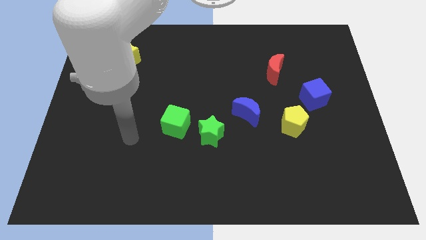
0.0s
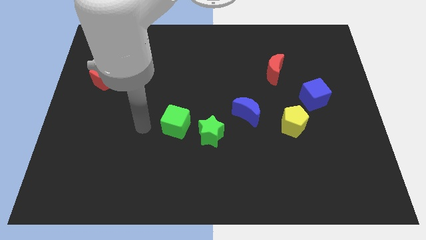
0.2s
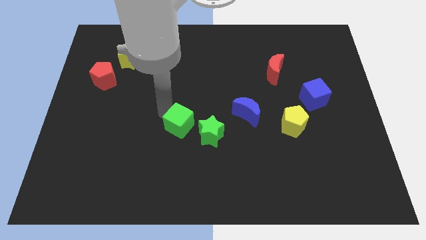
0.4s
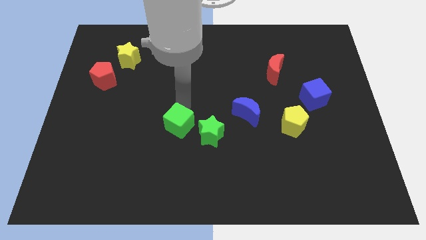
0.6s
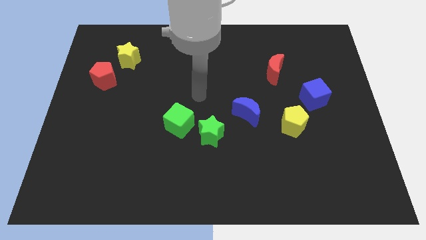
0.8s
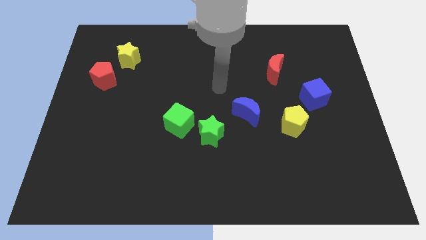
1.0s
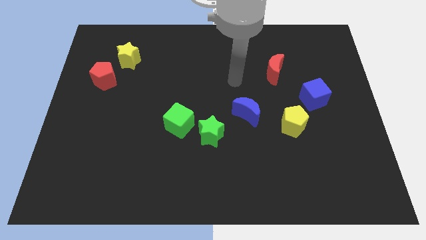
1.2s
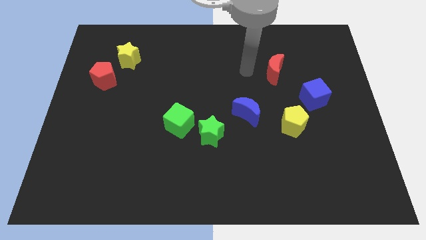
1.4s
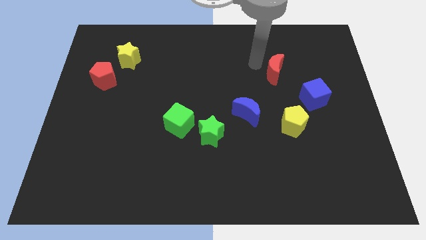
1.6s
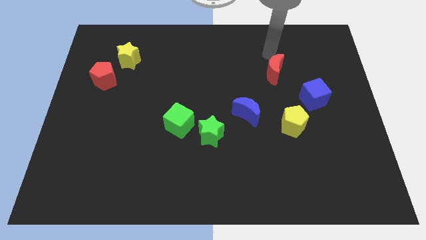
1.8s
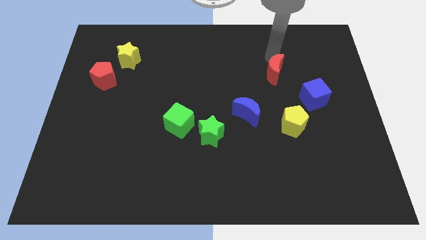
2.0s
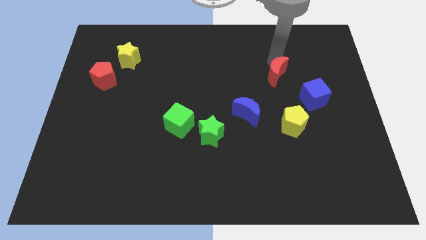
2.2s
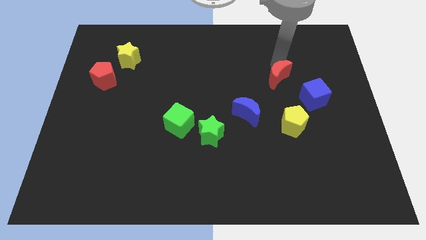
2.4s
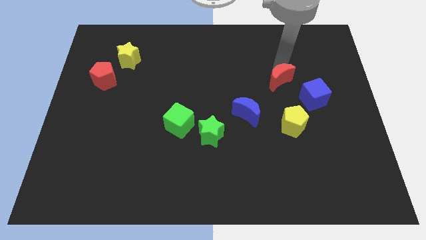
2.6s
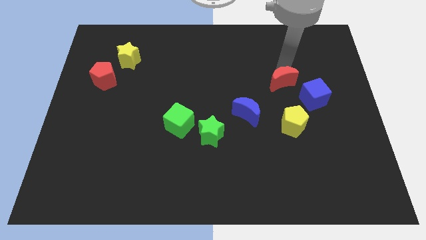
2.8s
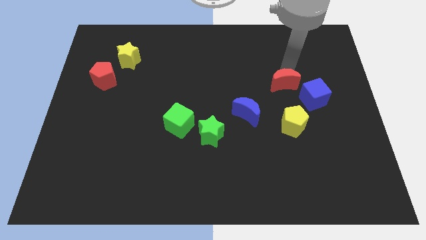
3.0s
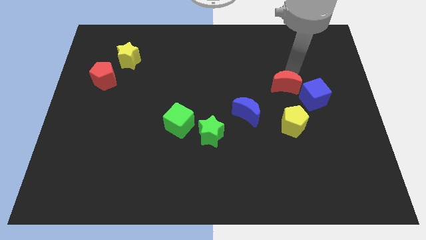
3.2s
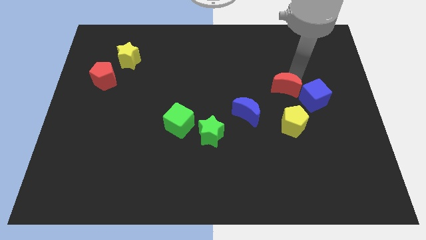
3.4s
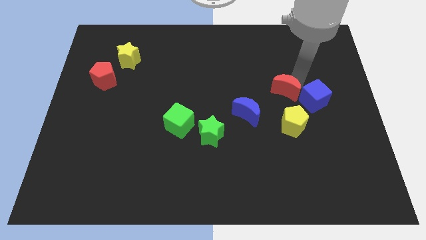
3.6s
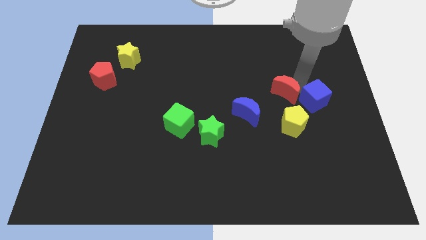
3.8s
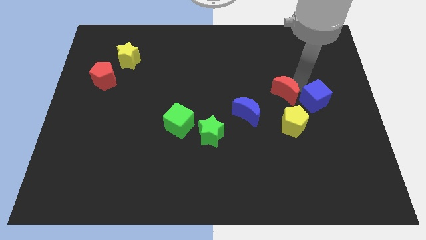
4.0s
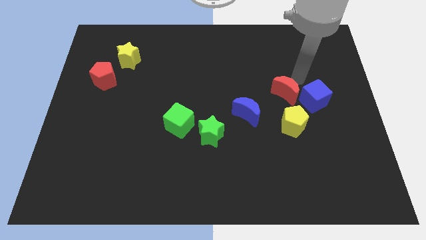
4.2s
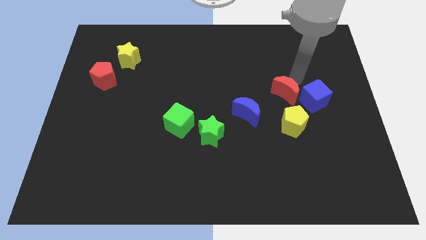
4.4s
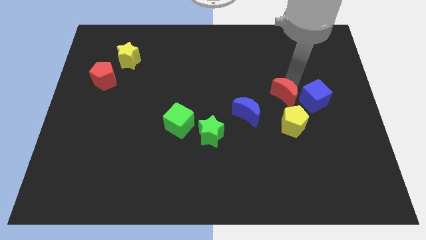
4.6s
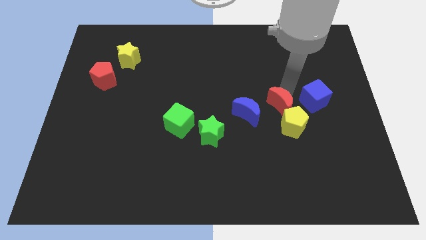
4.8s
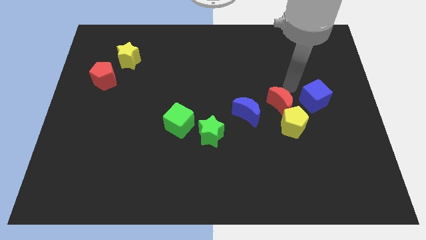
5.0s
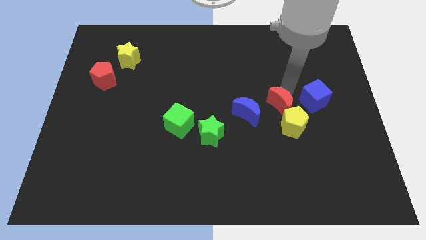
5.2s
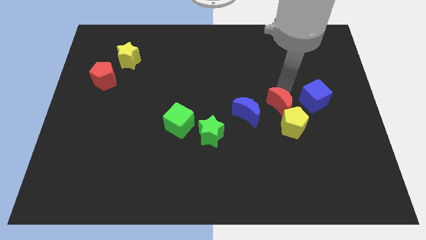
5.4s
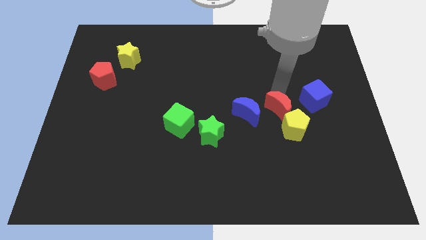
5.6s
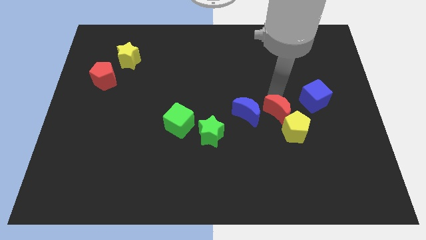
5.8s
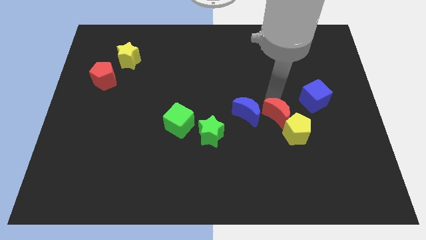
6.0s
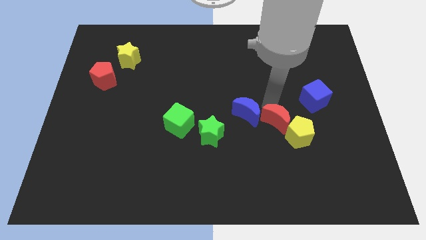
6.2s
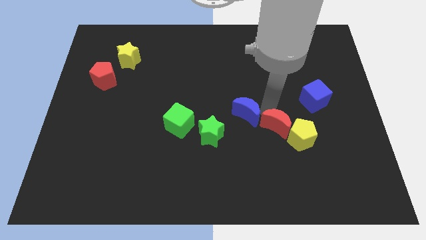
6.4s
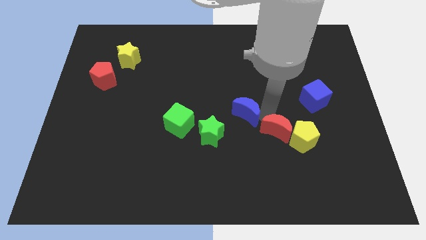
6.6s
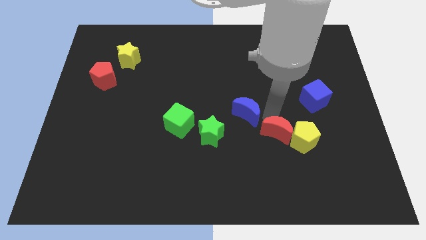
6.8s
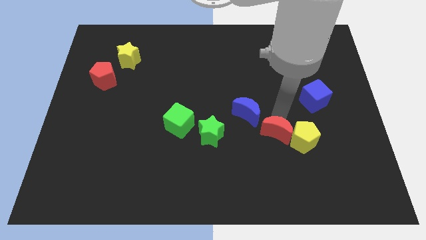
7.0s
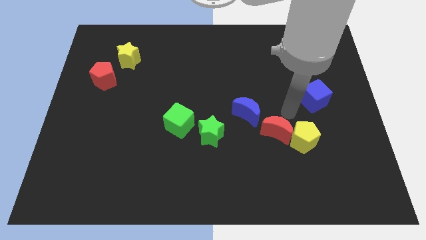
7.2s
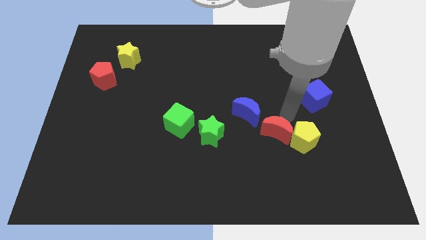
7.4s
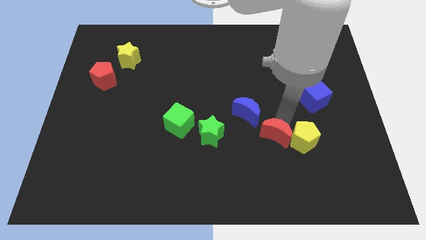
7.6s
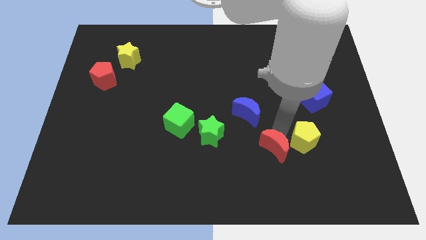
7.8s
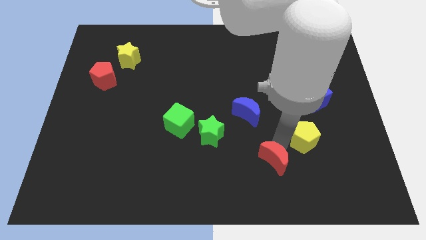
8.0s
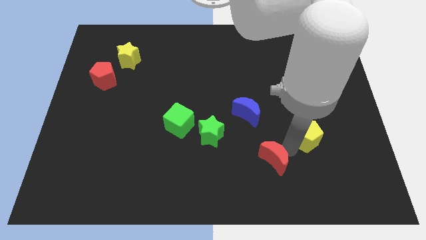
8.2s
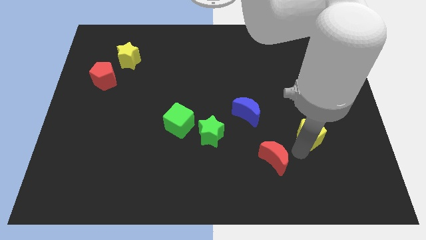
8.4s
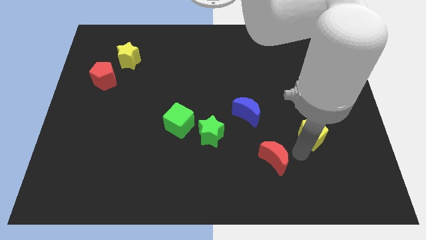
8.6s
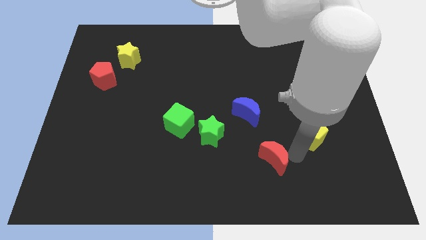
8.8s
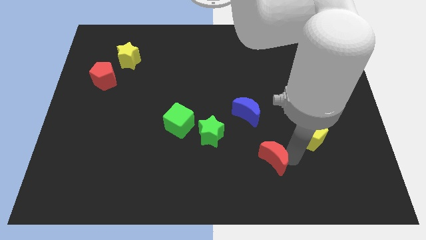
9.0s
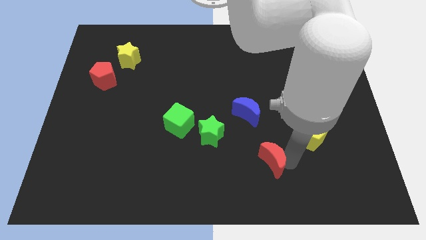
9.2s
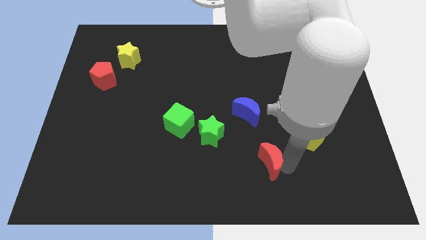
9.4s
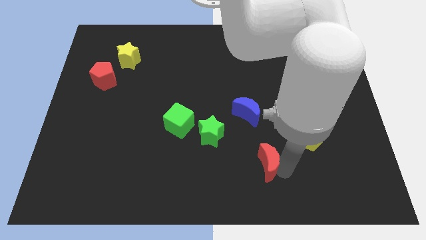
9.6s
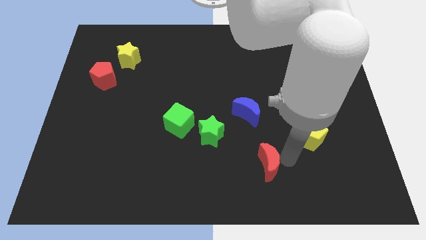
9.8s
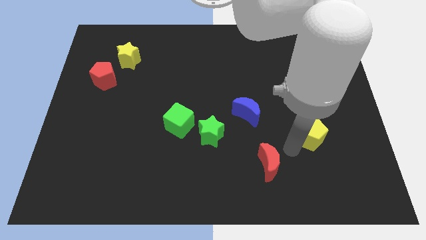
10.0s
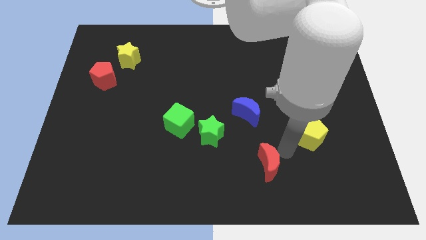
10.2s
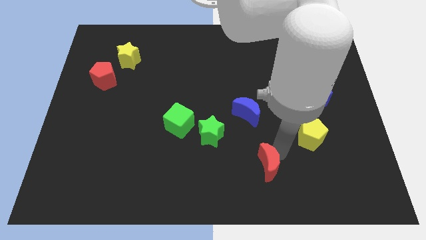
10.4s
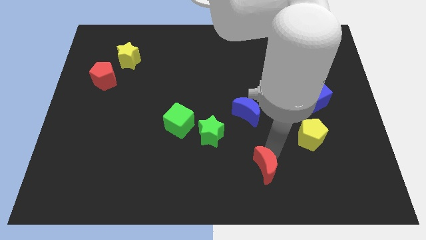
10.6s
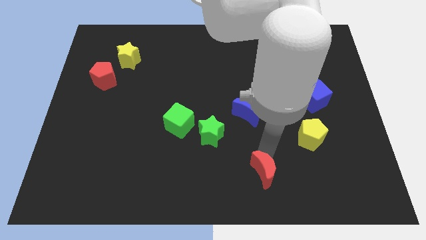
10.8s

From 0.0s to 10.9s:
slide the red moon to the bottom

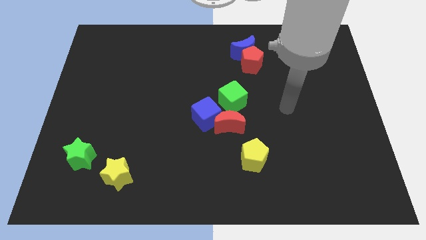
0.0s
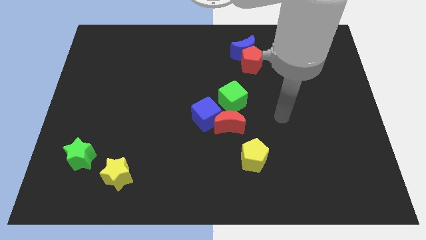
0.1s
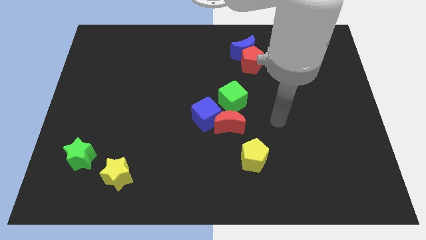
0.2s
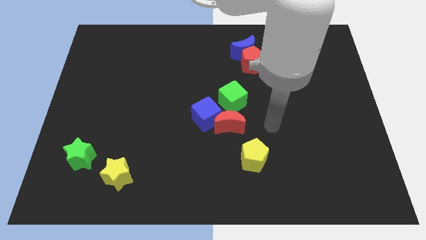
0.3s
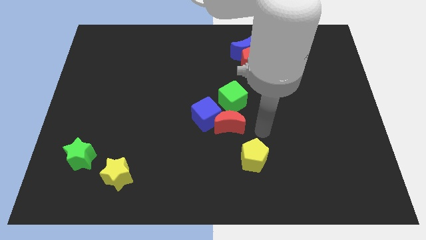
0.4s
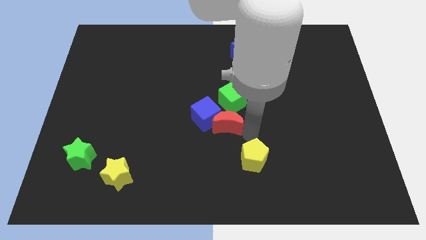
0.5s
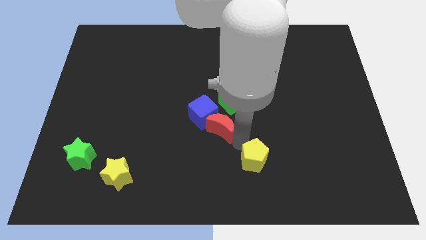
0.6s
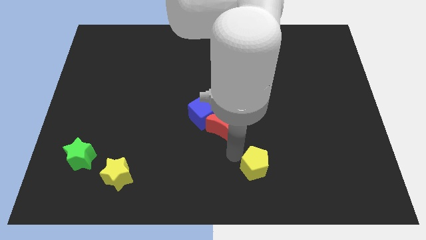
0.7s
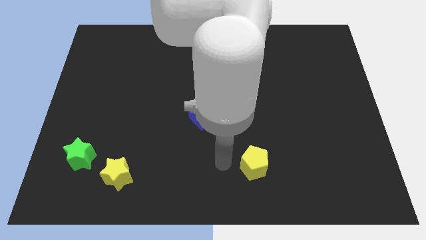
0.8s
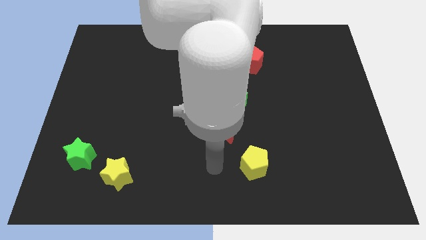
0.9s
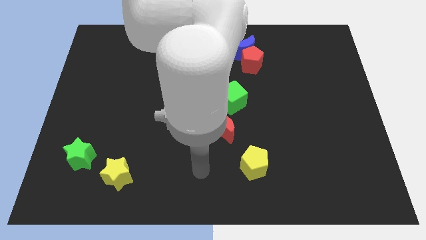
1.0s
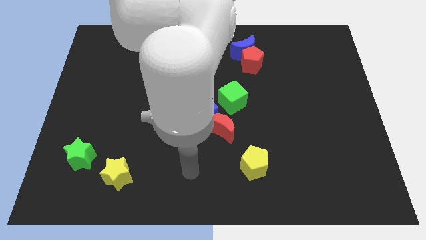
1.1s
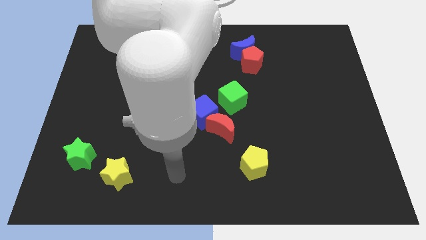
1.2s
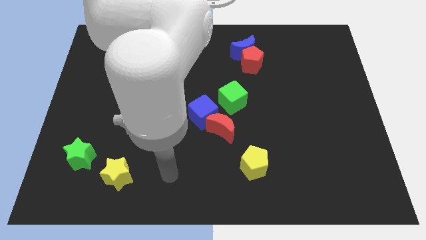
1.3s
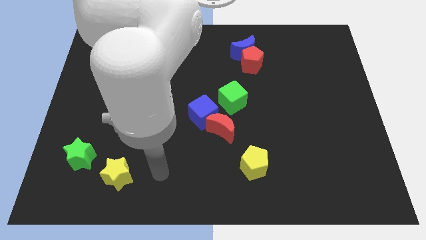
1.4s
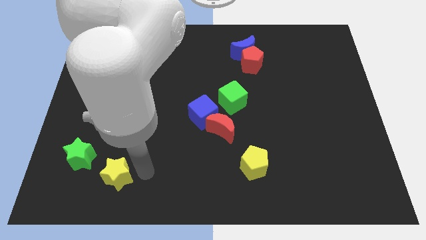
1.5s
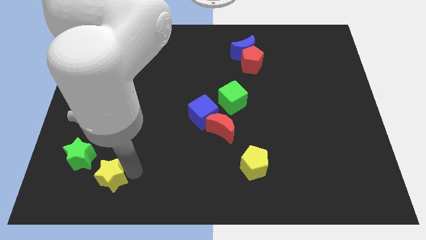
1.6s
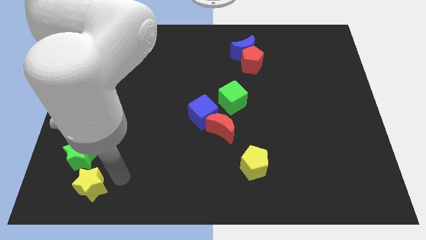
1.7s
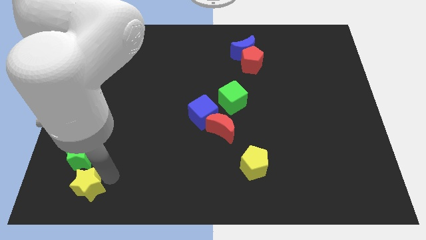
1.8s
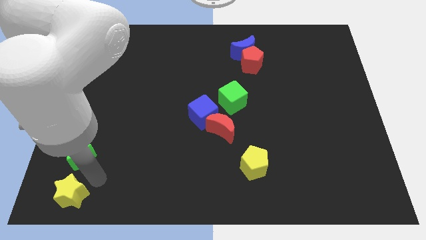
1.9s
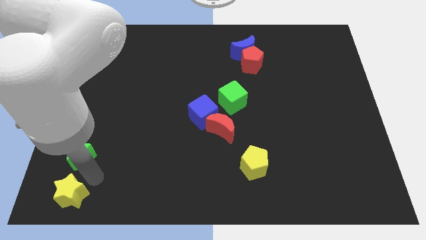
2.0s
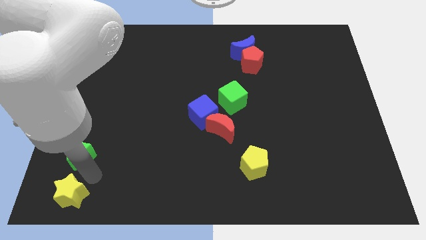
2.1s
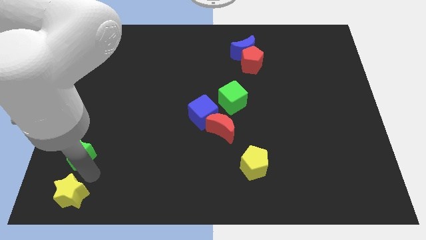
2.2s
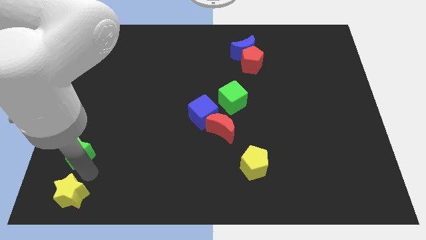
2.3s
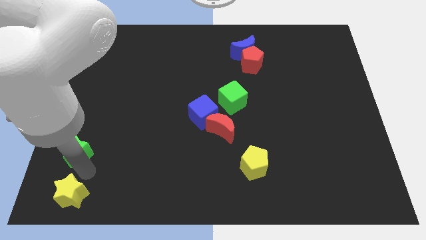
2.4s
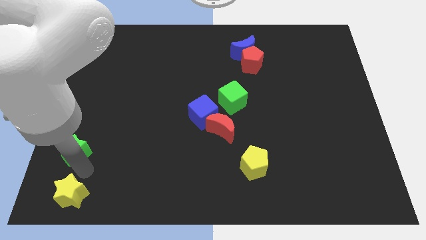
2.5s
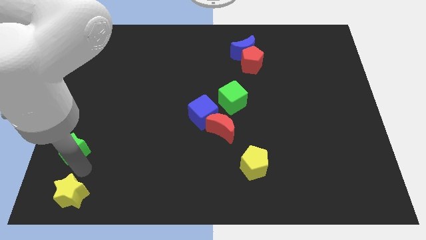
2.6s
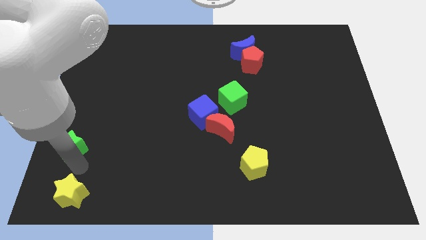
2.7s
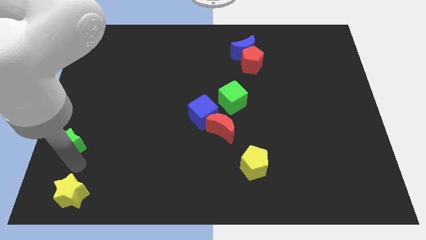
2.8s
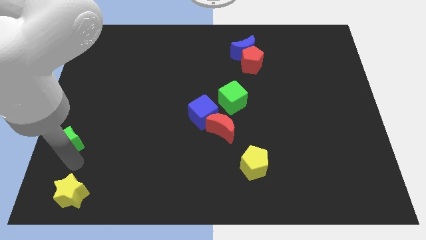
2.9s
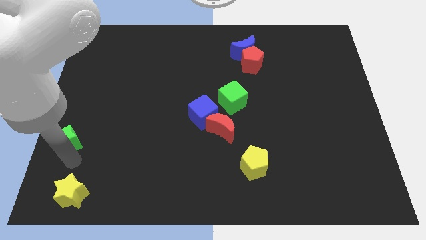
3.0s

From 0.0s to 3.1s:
move the green star to the left side
